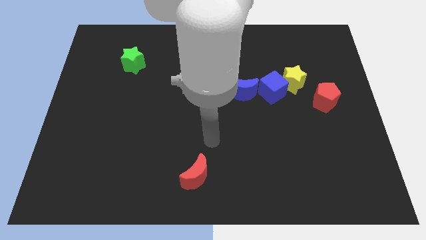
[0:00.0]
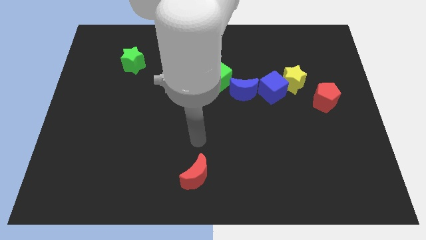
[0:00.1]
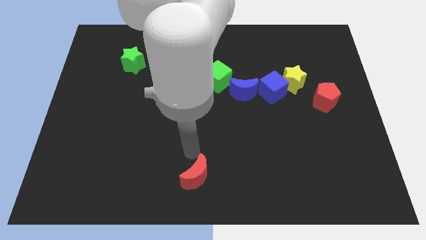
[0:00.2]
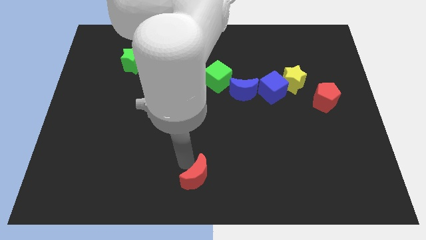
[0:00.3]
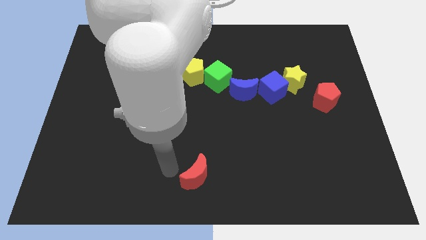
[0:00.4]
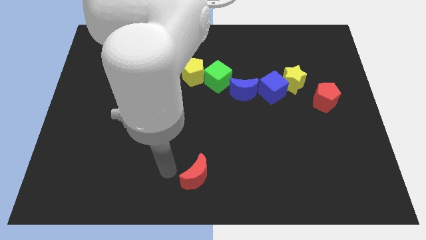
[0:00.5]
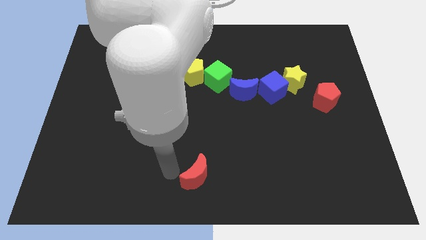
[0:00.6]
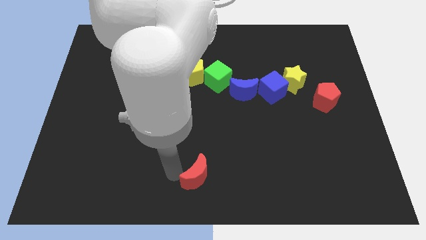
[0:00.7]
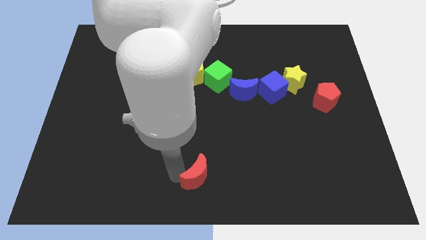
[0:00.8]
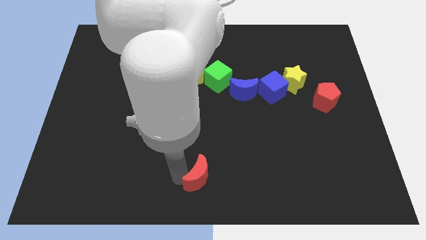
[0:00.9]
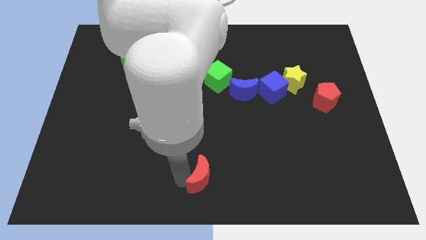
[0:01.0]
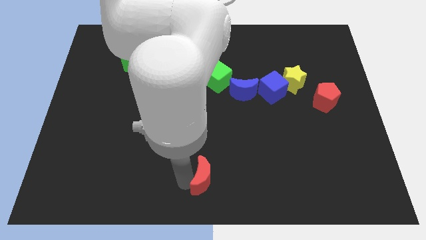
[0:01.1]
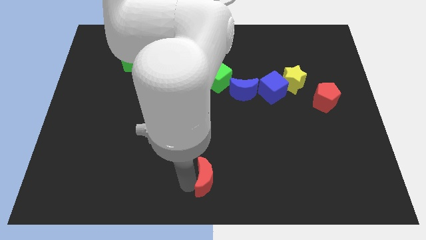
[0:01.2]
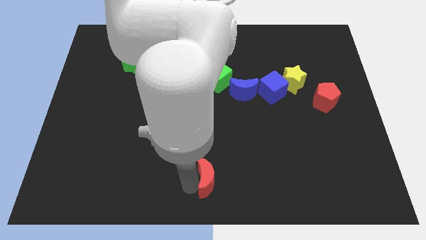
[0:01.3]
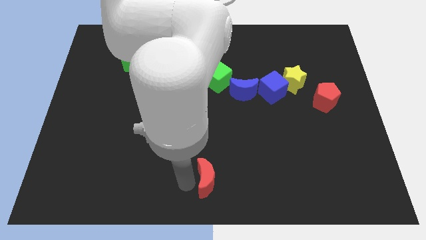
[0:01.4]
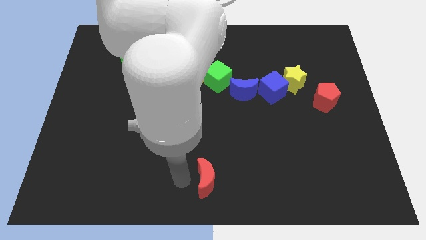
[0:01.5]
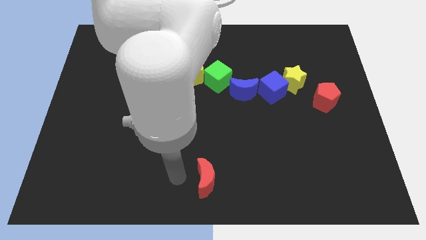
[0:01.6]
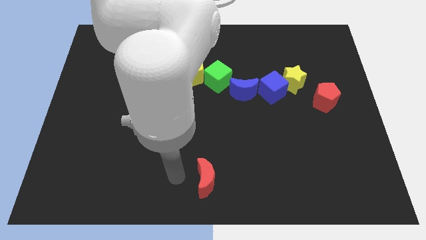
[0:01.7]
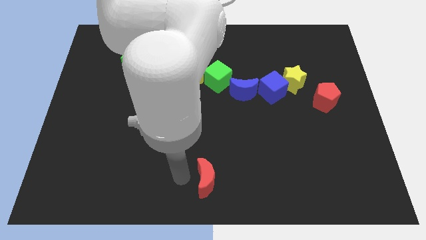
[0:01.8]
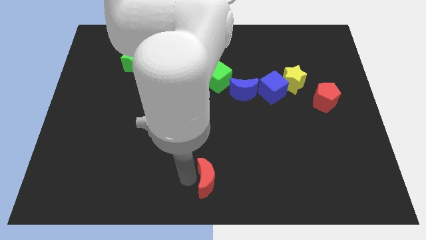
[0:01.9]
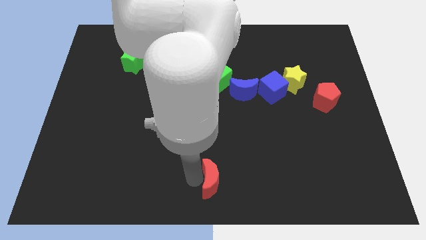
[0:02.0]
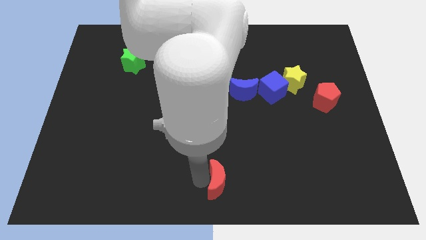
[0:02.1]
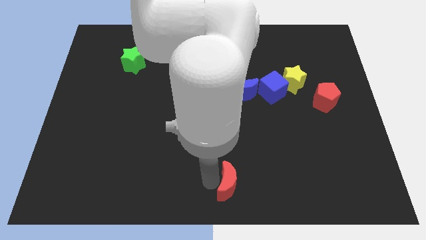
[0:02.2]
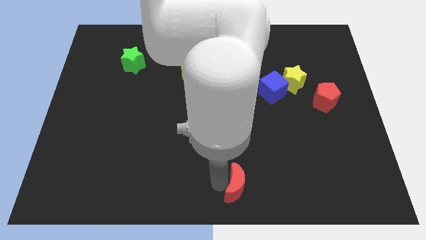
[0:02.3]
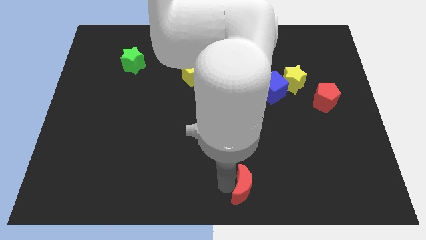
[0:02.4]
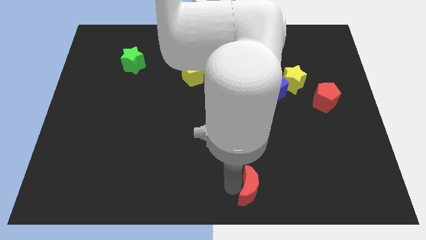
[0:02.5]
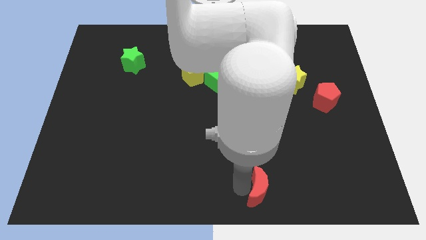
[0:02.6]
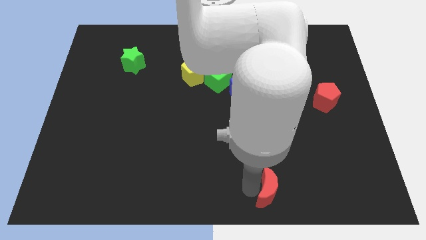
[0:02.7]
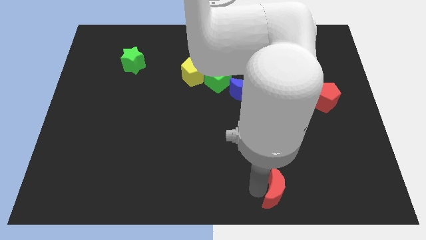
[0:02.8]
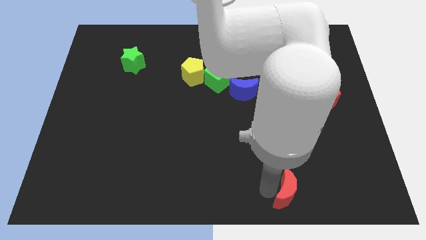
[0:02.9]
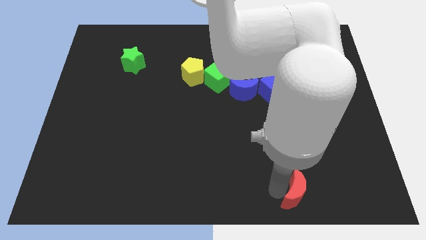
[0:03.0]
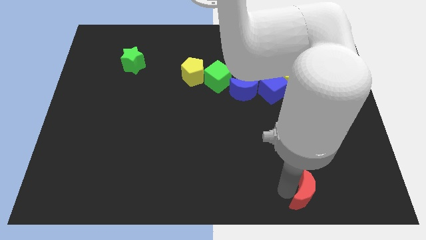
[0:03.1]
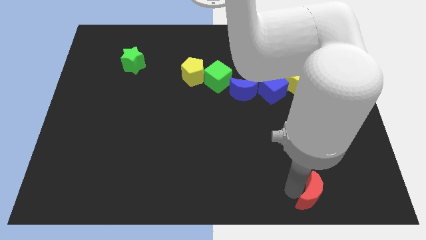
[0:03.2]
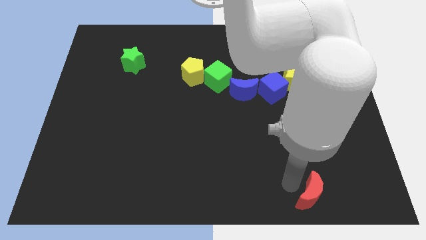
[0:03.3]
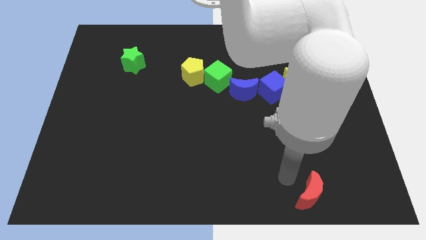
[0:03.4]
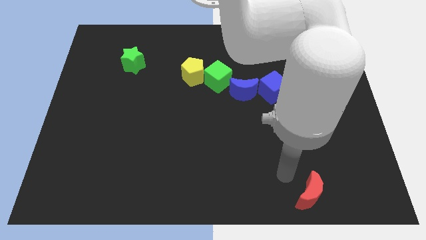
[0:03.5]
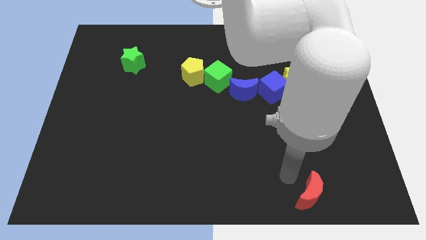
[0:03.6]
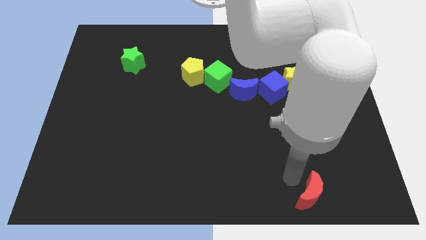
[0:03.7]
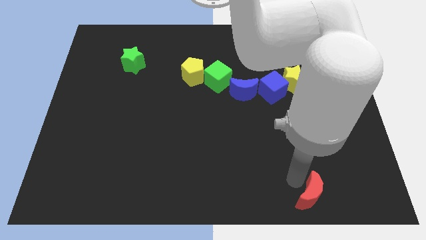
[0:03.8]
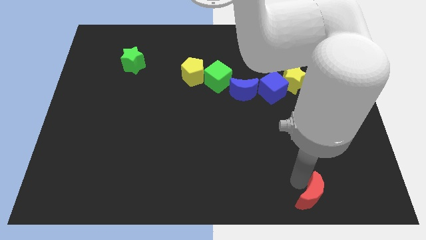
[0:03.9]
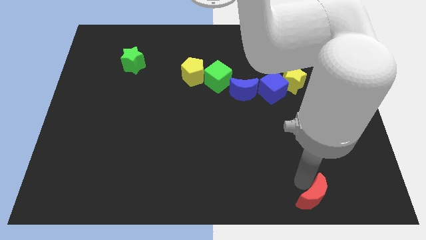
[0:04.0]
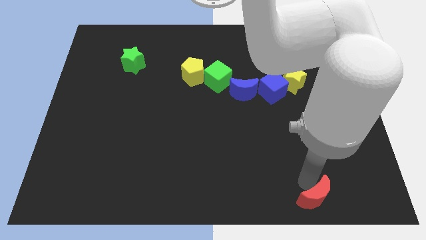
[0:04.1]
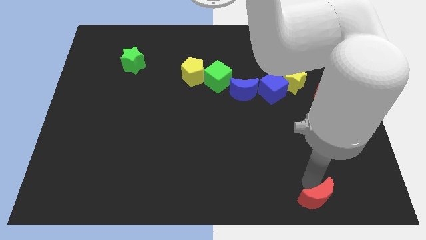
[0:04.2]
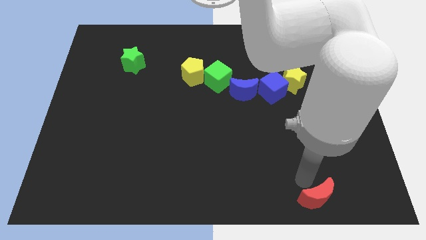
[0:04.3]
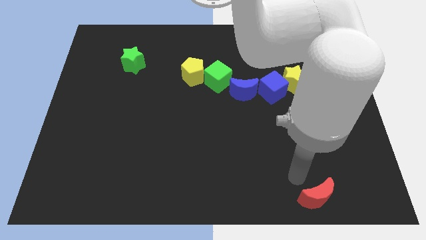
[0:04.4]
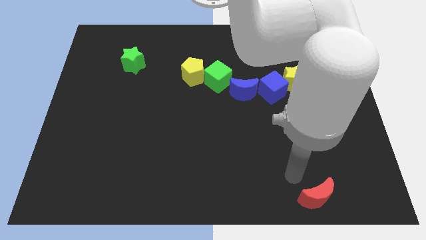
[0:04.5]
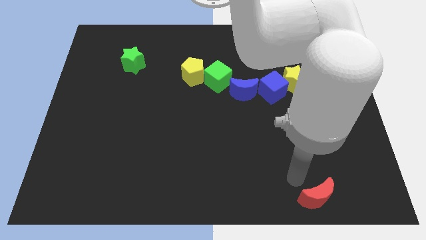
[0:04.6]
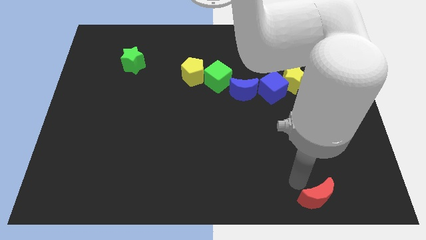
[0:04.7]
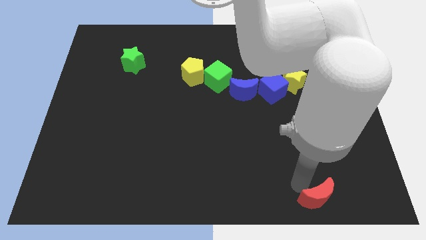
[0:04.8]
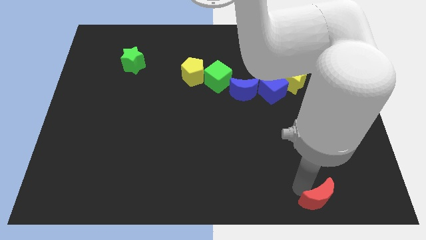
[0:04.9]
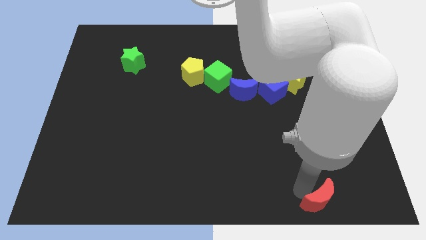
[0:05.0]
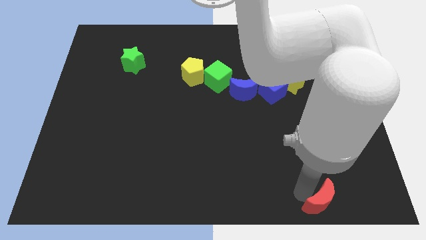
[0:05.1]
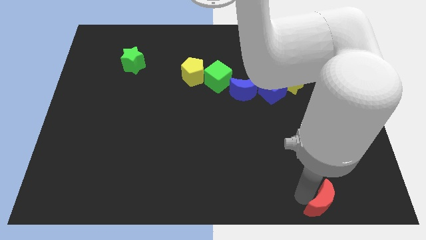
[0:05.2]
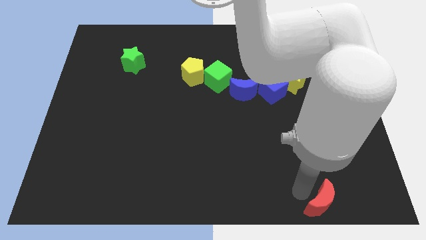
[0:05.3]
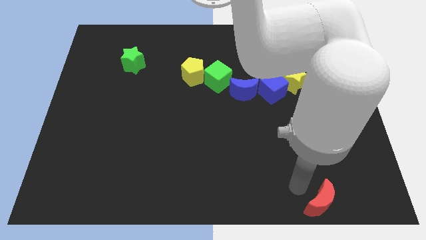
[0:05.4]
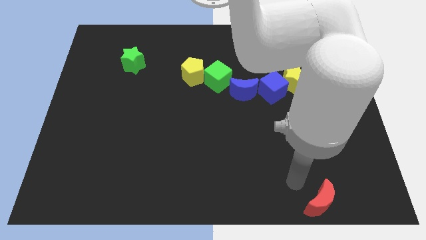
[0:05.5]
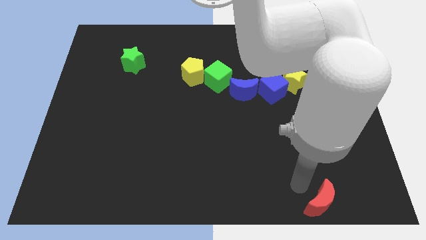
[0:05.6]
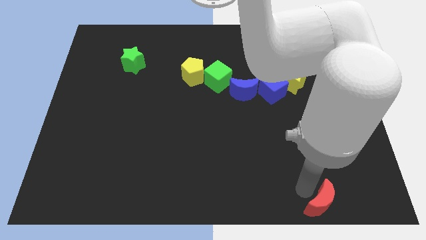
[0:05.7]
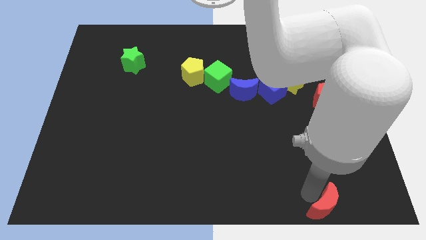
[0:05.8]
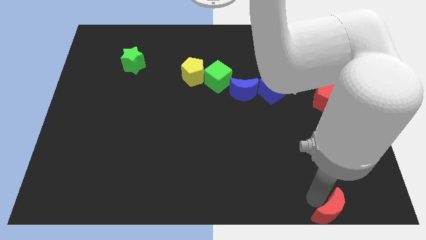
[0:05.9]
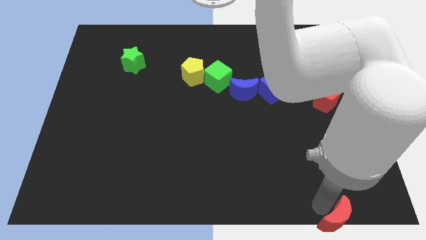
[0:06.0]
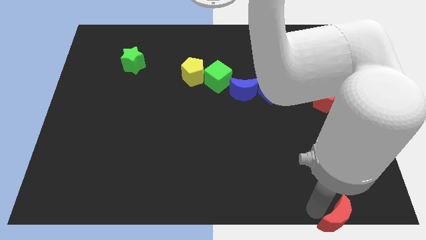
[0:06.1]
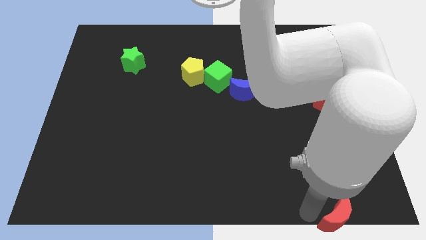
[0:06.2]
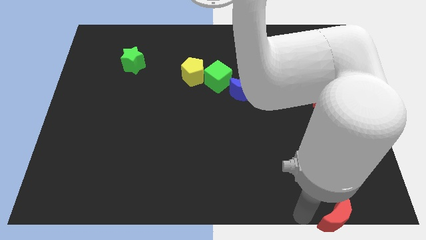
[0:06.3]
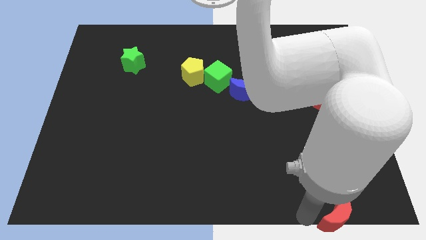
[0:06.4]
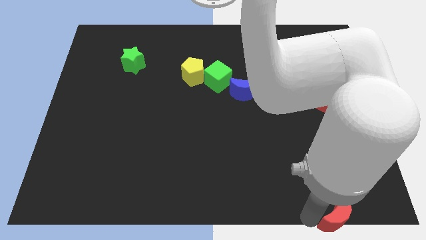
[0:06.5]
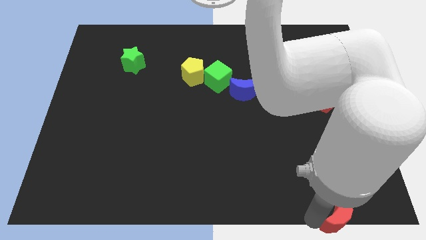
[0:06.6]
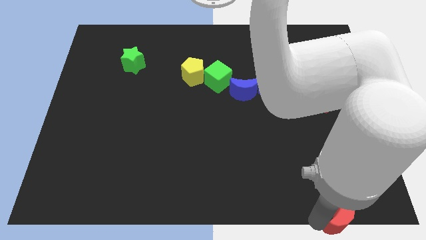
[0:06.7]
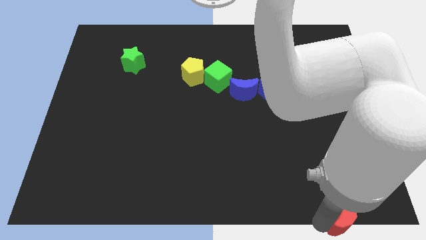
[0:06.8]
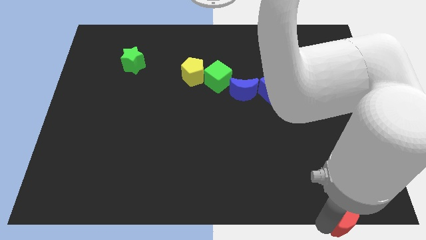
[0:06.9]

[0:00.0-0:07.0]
push the red moon to the bottom right of the board

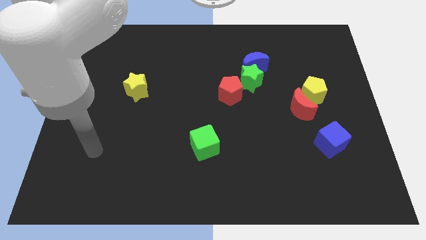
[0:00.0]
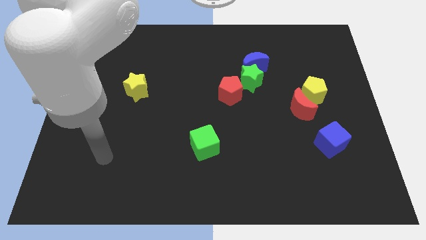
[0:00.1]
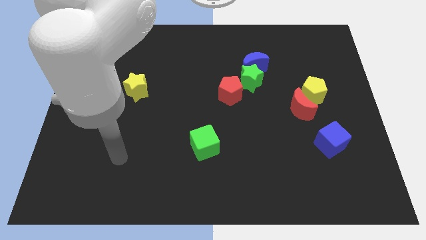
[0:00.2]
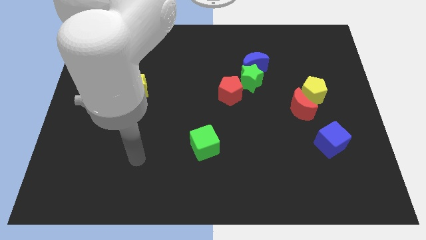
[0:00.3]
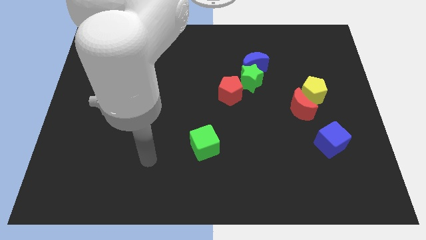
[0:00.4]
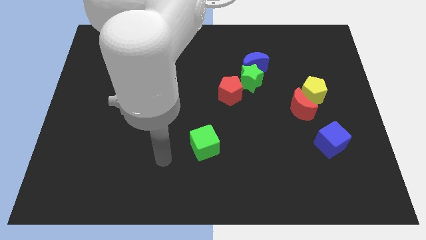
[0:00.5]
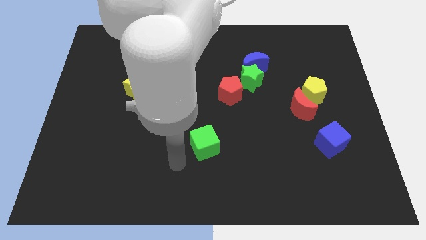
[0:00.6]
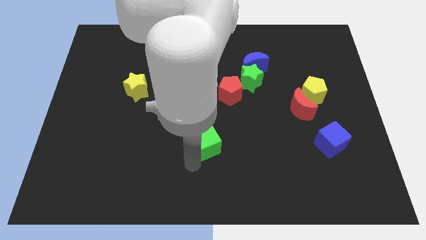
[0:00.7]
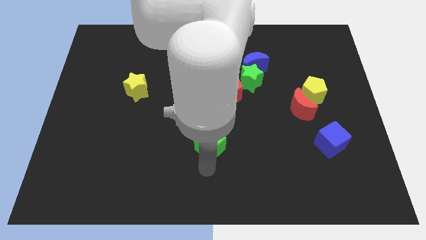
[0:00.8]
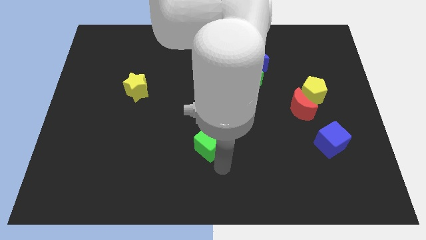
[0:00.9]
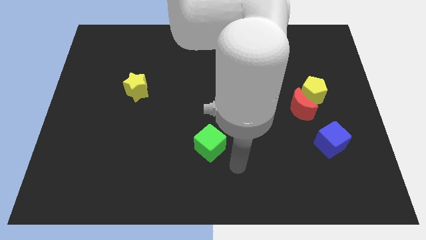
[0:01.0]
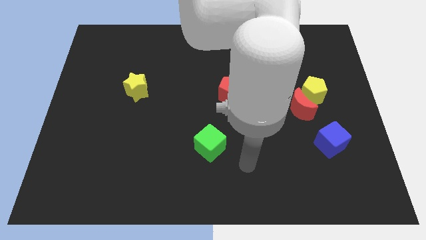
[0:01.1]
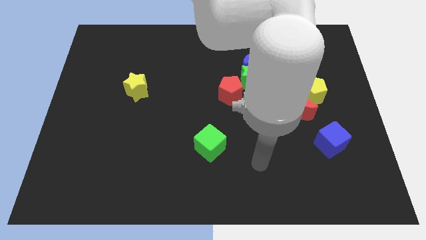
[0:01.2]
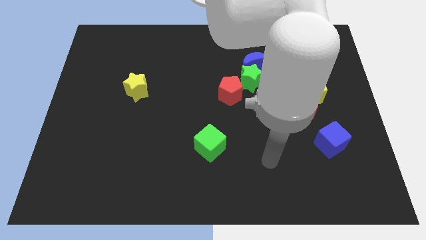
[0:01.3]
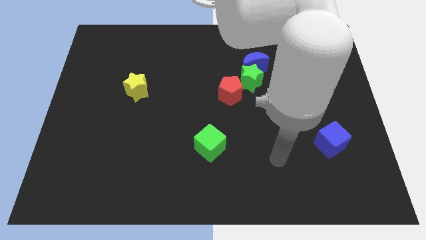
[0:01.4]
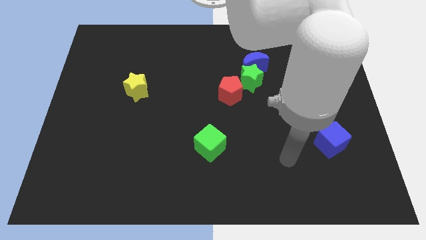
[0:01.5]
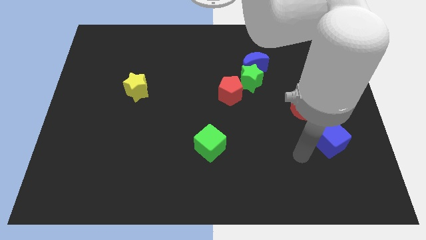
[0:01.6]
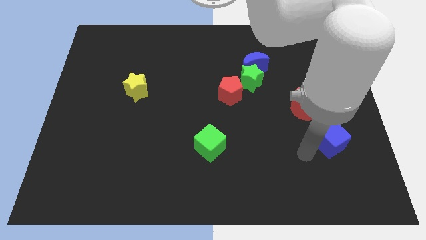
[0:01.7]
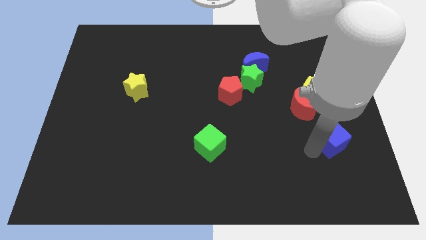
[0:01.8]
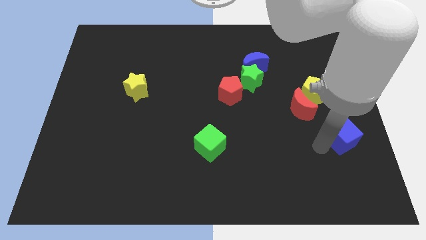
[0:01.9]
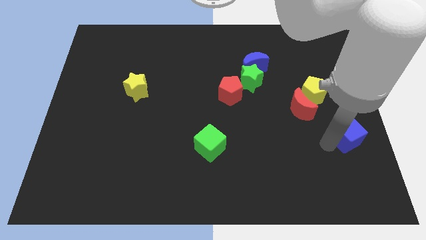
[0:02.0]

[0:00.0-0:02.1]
put the blue cube to the right side
